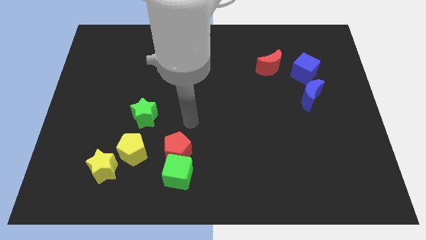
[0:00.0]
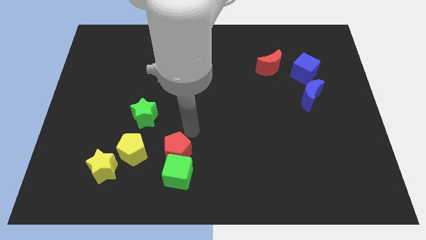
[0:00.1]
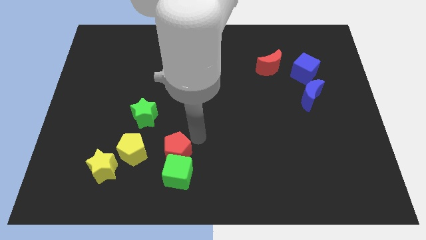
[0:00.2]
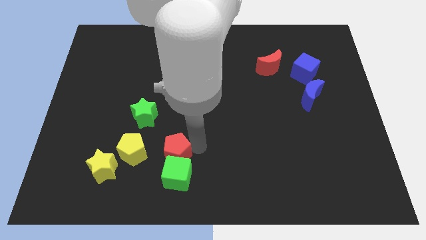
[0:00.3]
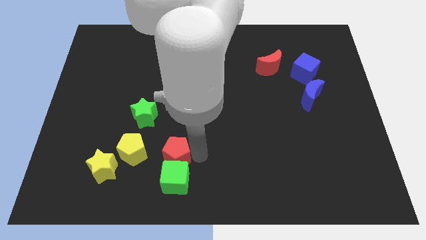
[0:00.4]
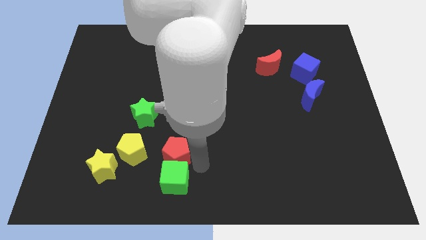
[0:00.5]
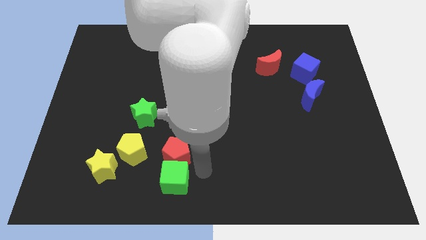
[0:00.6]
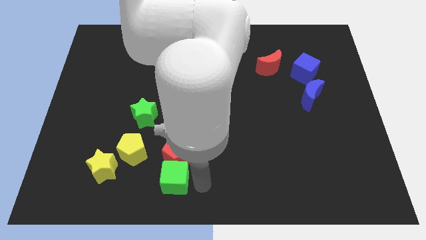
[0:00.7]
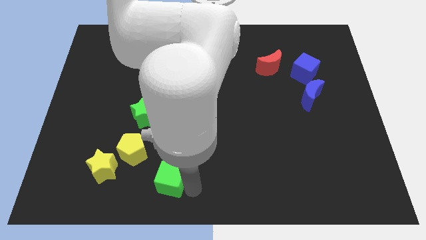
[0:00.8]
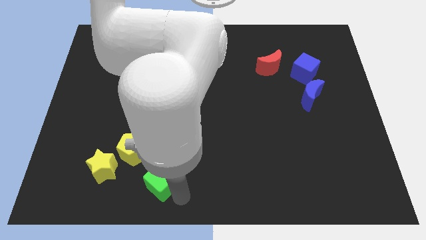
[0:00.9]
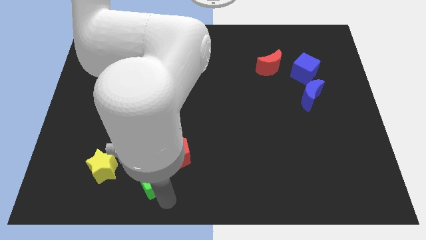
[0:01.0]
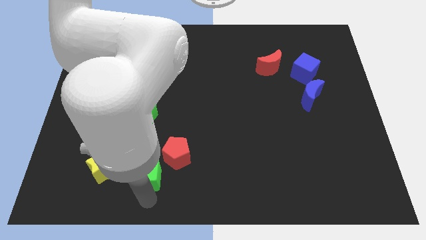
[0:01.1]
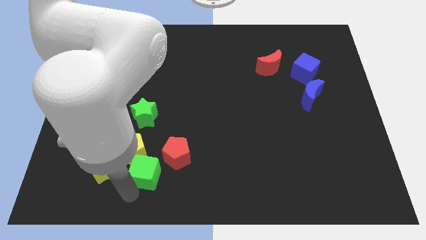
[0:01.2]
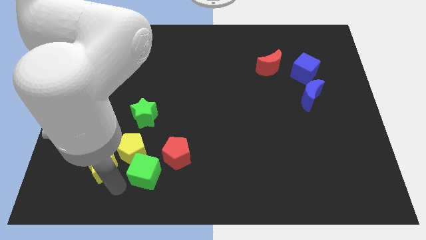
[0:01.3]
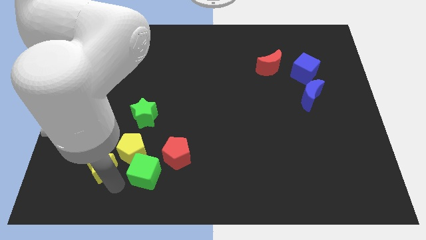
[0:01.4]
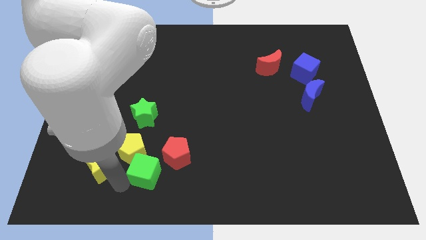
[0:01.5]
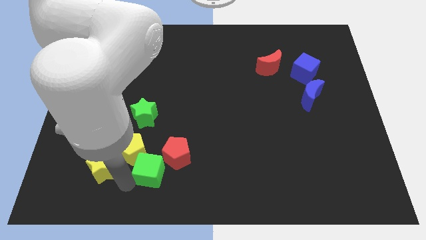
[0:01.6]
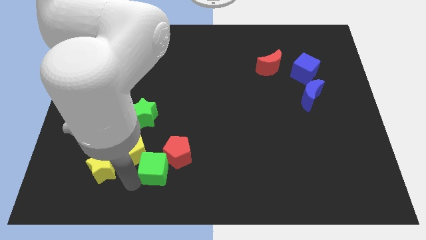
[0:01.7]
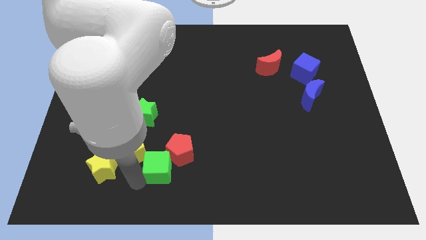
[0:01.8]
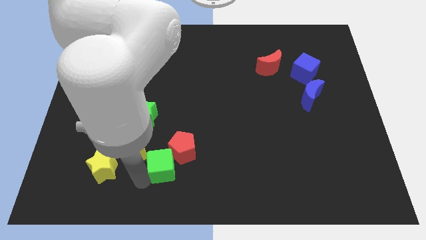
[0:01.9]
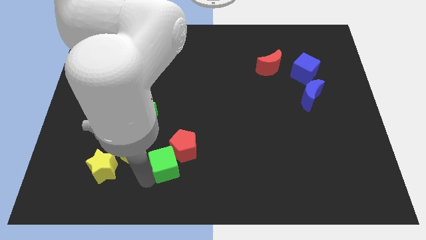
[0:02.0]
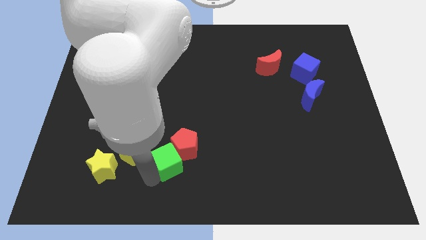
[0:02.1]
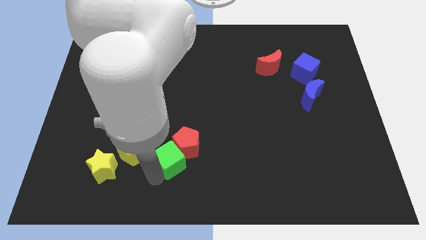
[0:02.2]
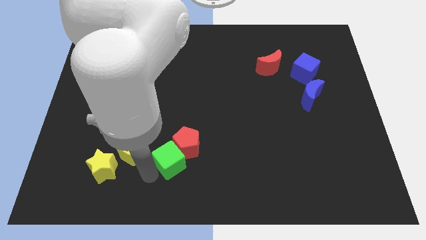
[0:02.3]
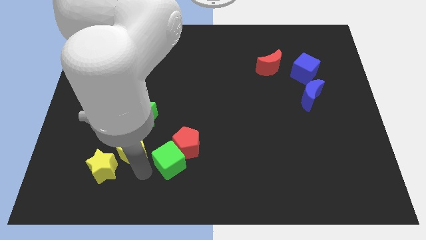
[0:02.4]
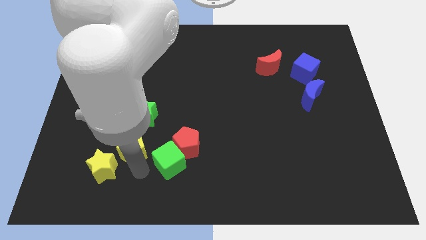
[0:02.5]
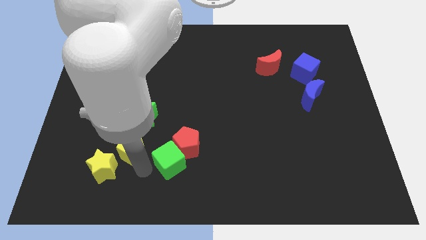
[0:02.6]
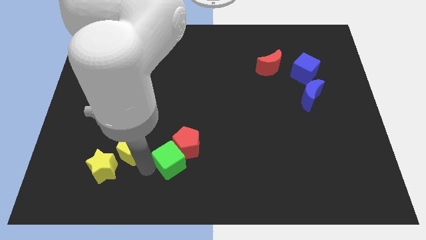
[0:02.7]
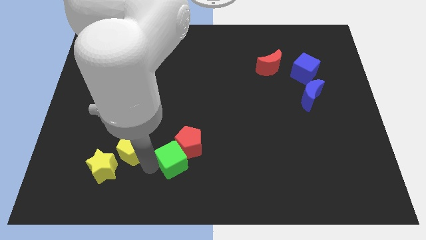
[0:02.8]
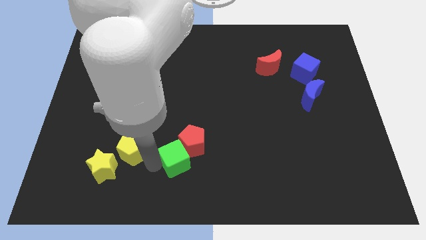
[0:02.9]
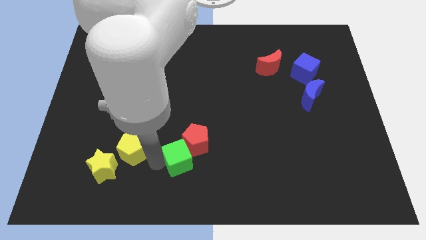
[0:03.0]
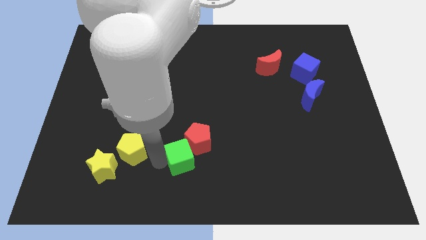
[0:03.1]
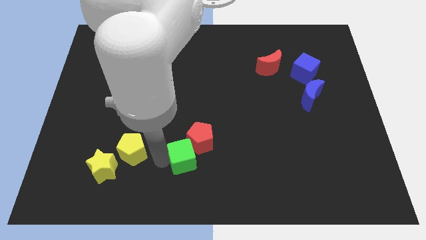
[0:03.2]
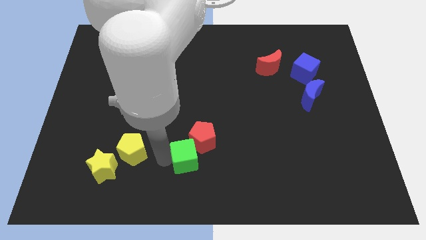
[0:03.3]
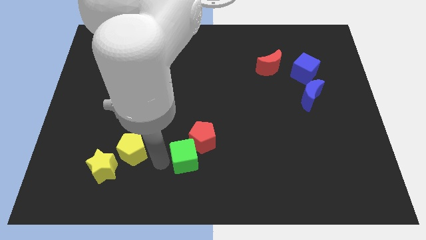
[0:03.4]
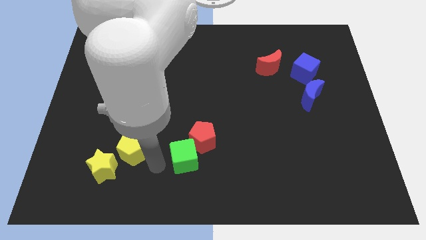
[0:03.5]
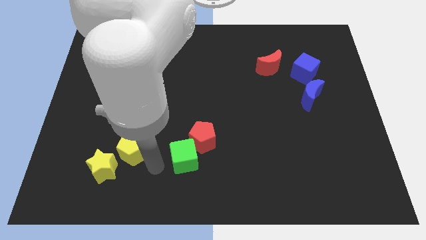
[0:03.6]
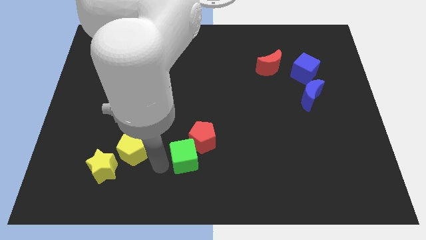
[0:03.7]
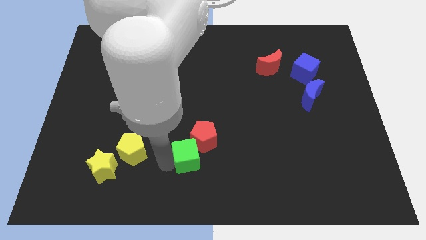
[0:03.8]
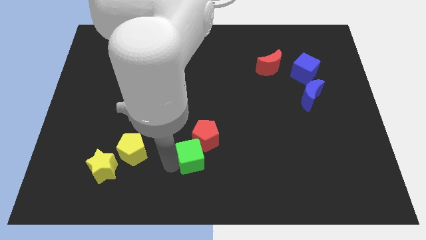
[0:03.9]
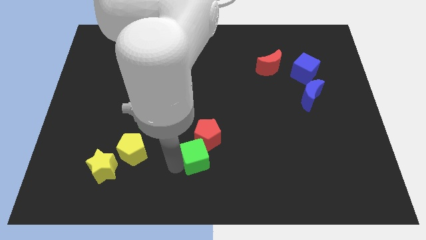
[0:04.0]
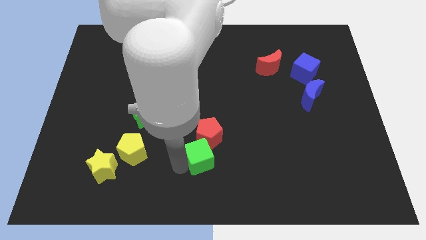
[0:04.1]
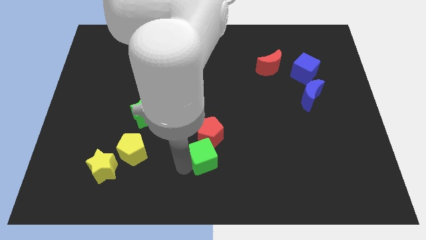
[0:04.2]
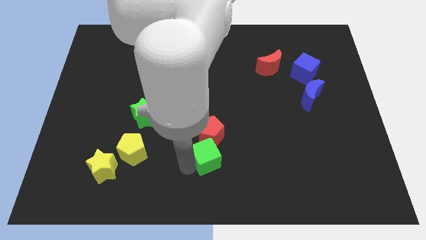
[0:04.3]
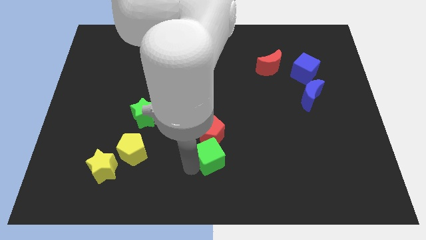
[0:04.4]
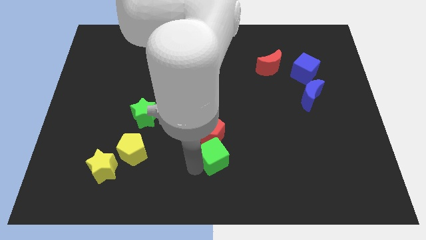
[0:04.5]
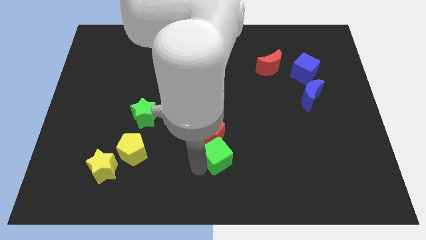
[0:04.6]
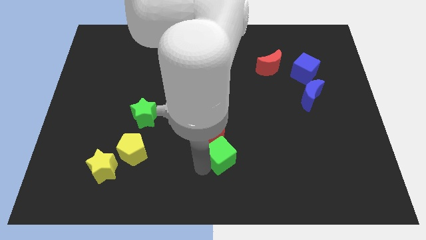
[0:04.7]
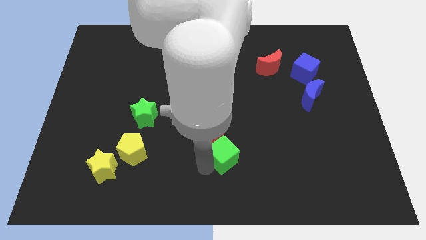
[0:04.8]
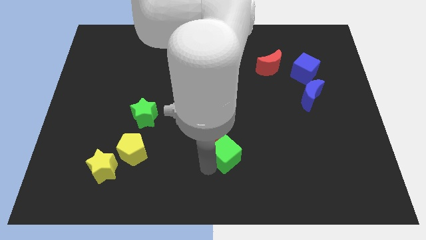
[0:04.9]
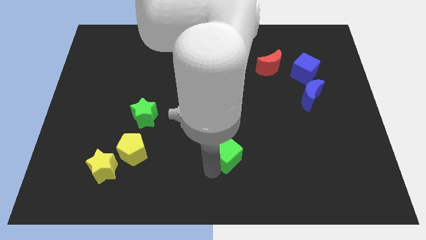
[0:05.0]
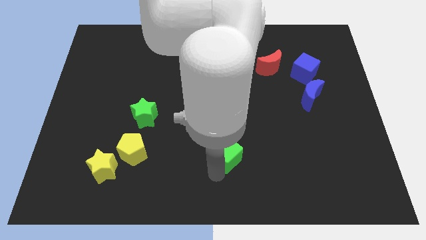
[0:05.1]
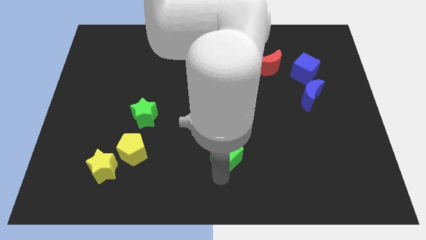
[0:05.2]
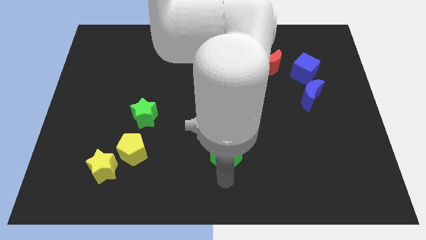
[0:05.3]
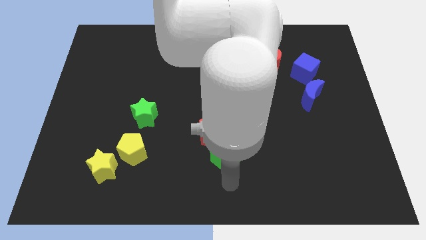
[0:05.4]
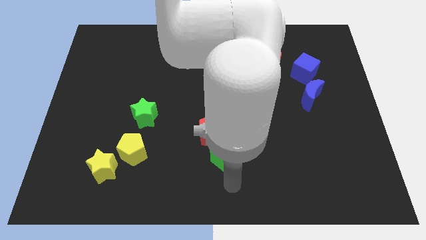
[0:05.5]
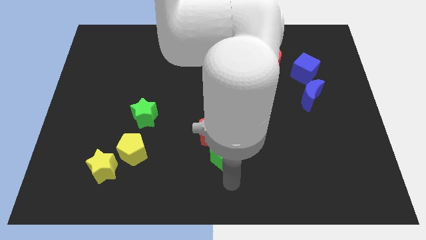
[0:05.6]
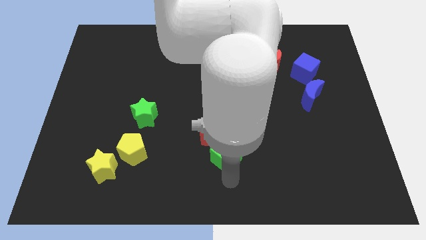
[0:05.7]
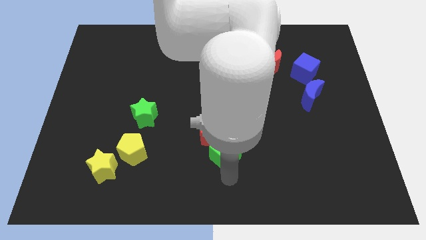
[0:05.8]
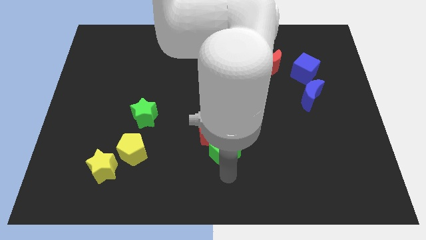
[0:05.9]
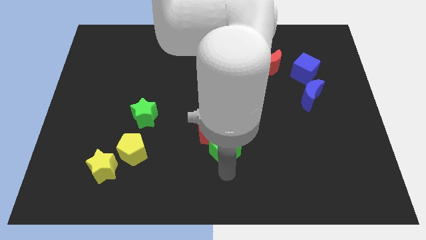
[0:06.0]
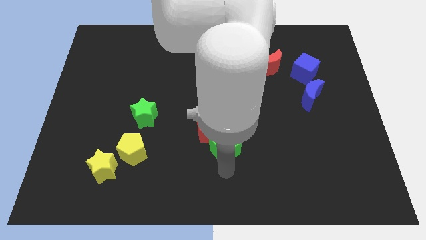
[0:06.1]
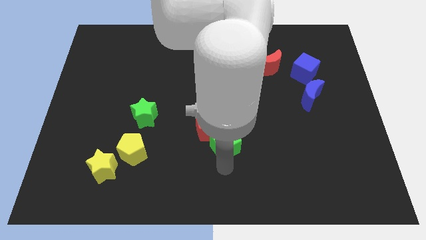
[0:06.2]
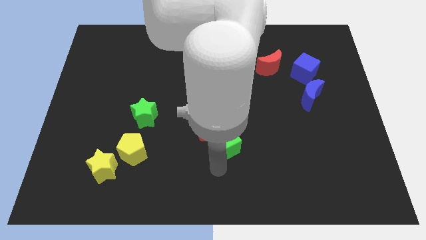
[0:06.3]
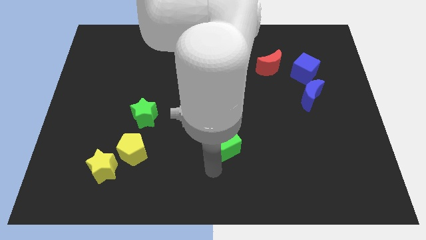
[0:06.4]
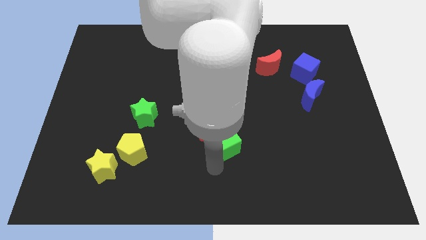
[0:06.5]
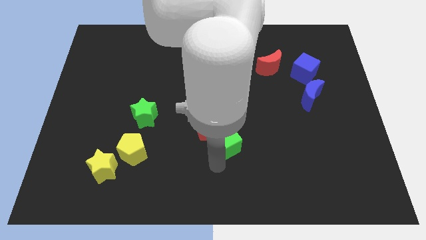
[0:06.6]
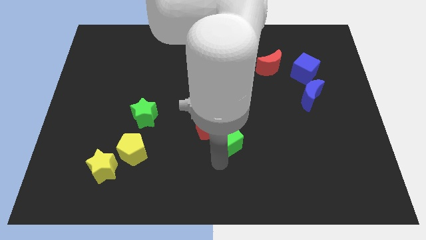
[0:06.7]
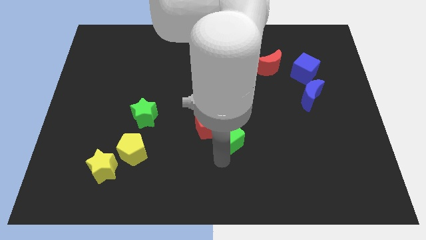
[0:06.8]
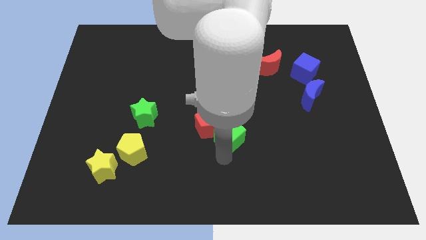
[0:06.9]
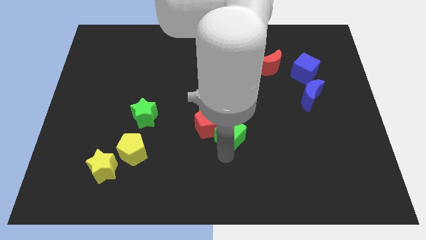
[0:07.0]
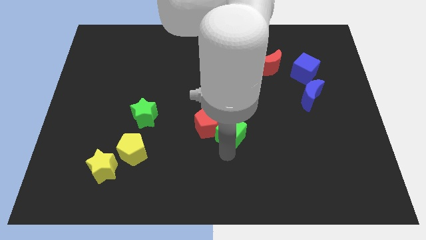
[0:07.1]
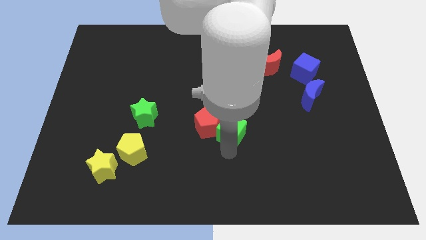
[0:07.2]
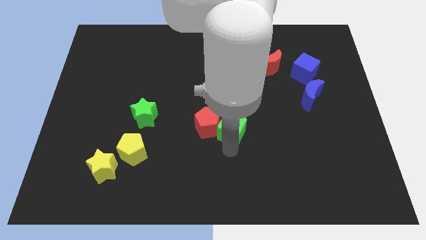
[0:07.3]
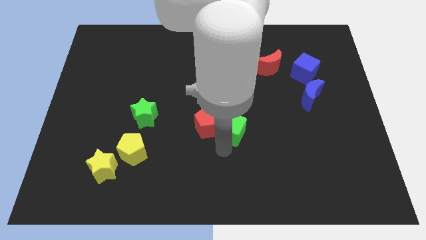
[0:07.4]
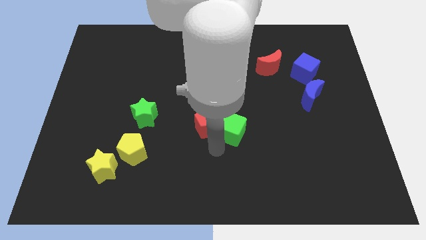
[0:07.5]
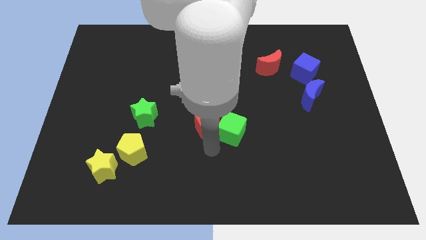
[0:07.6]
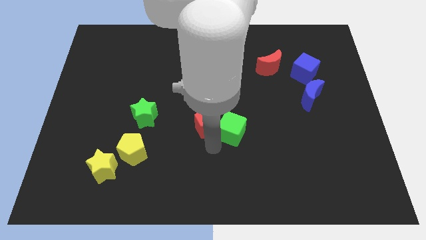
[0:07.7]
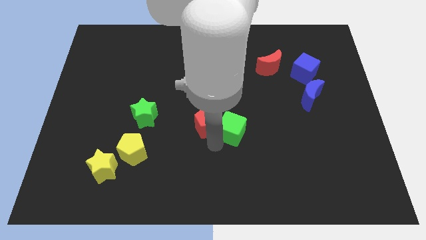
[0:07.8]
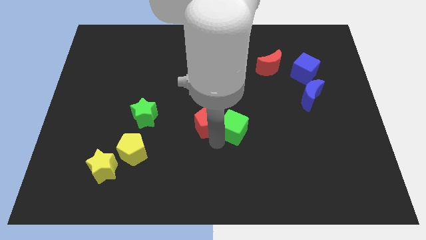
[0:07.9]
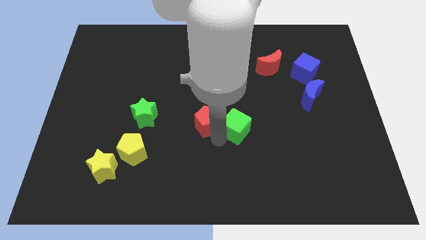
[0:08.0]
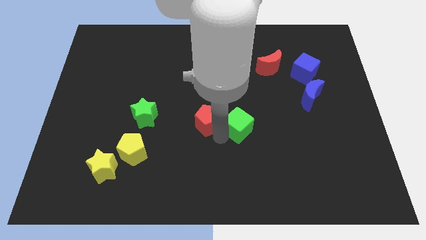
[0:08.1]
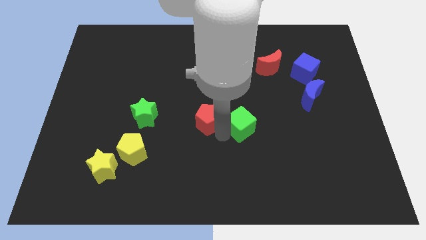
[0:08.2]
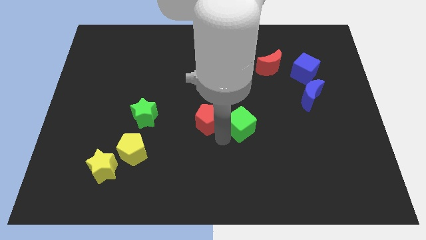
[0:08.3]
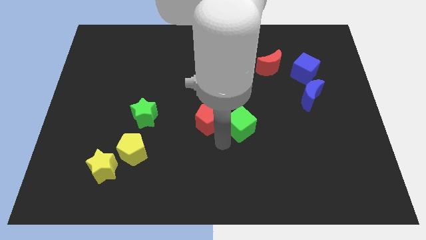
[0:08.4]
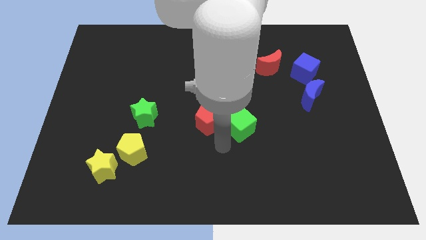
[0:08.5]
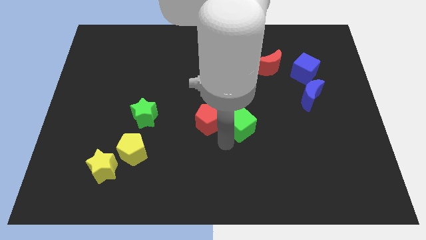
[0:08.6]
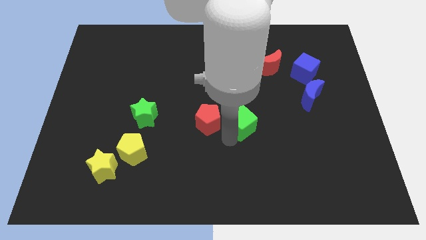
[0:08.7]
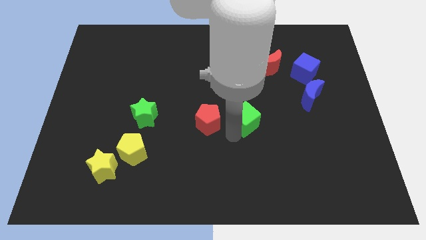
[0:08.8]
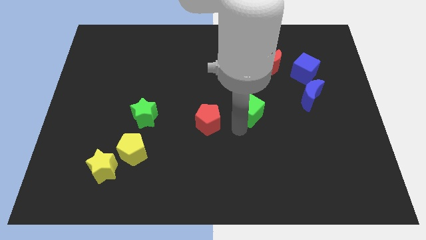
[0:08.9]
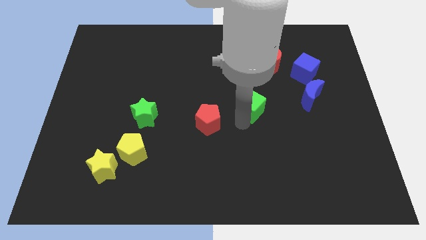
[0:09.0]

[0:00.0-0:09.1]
put the green cube left of the blue moon
